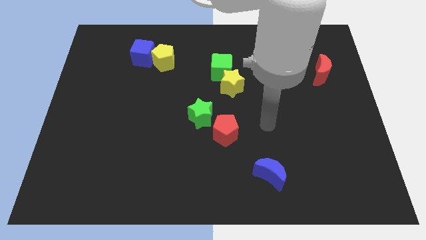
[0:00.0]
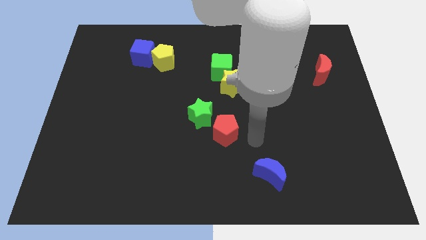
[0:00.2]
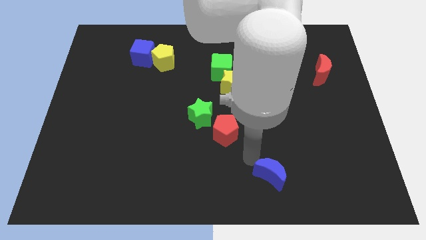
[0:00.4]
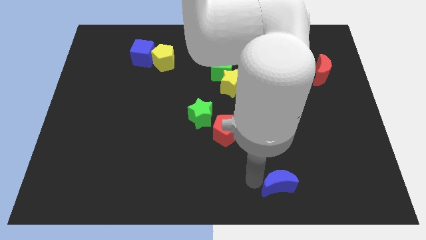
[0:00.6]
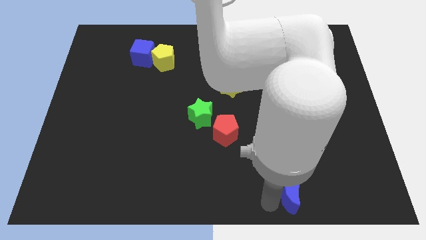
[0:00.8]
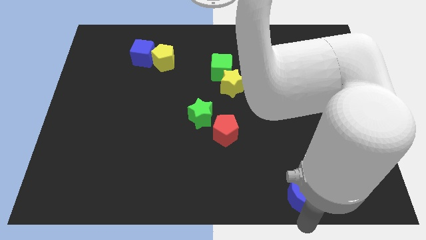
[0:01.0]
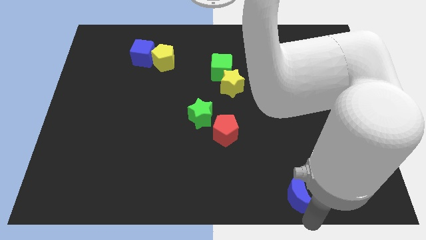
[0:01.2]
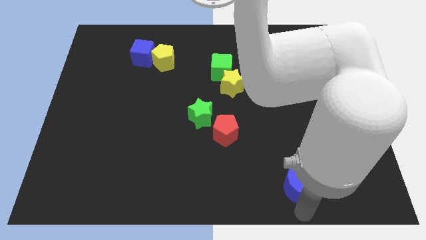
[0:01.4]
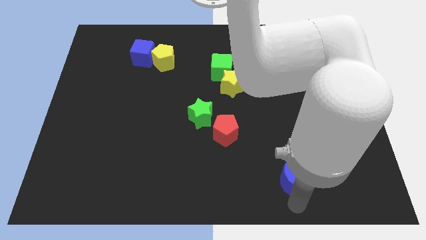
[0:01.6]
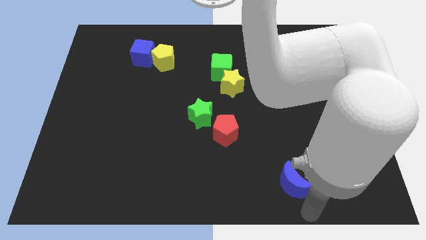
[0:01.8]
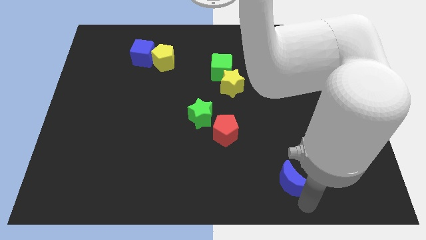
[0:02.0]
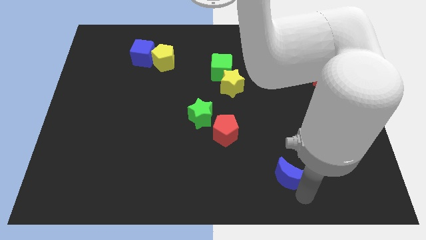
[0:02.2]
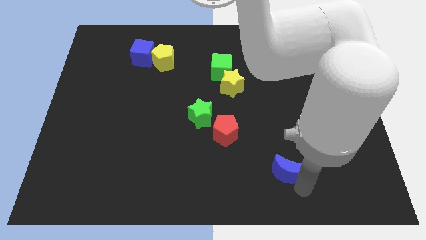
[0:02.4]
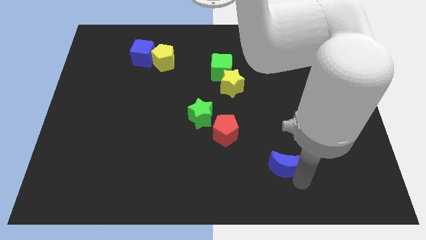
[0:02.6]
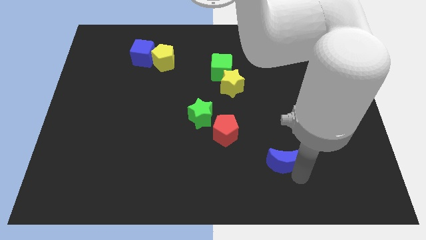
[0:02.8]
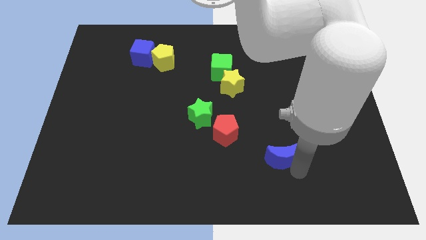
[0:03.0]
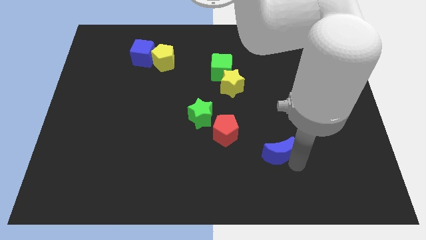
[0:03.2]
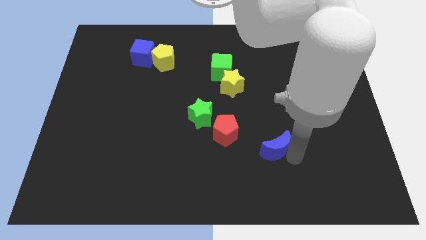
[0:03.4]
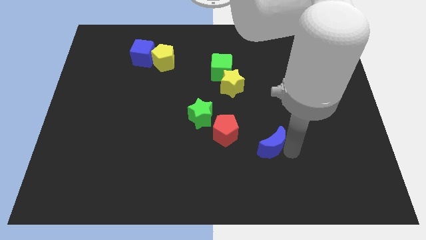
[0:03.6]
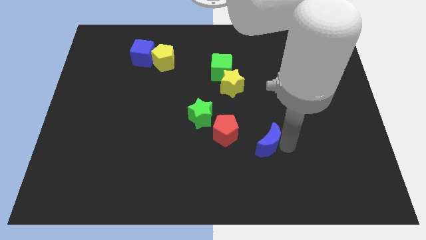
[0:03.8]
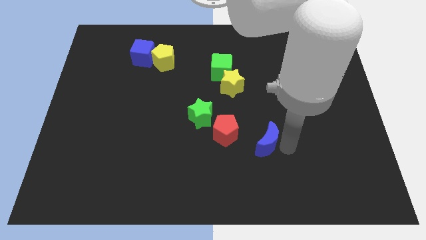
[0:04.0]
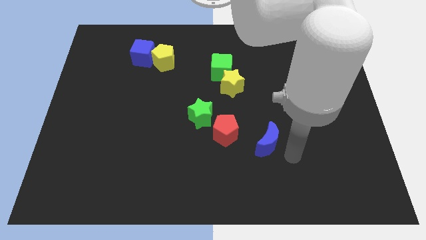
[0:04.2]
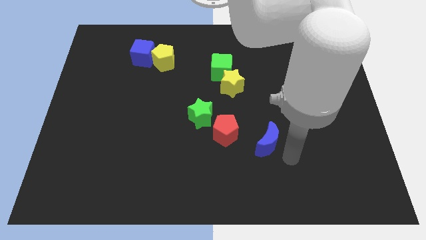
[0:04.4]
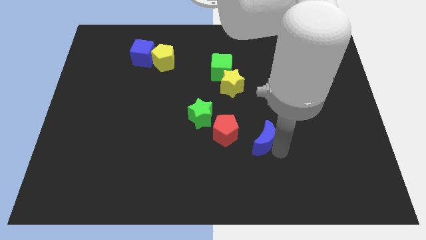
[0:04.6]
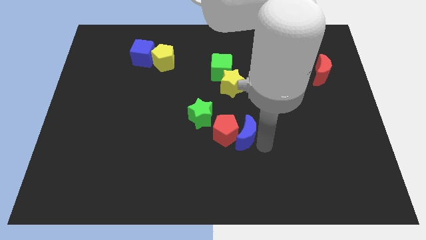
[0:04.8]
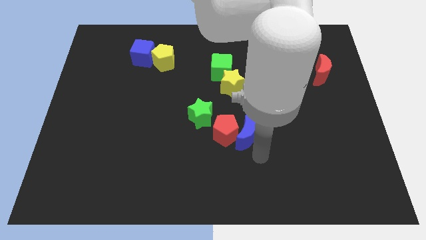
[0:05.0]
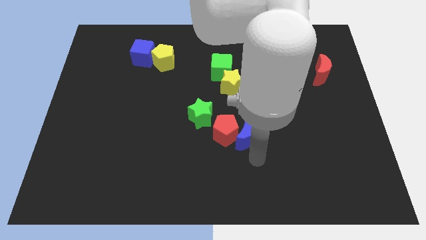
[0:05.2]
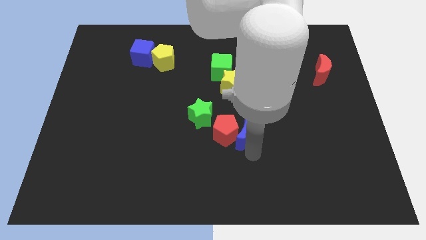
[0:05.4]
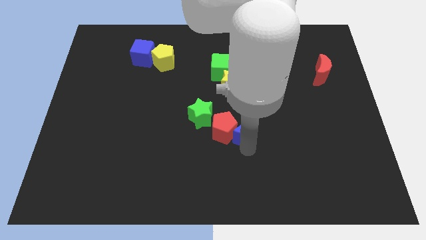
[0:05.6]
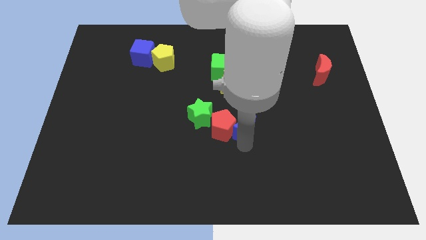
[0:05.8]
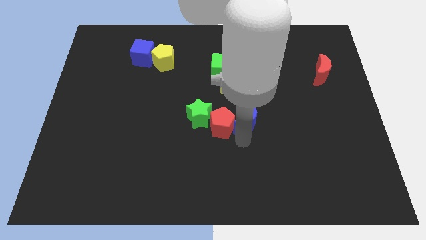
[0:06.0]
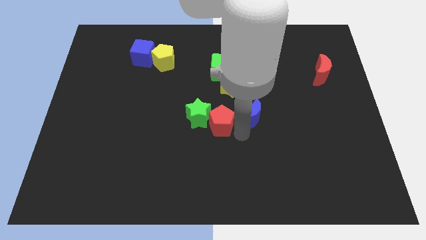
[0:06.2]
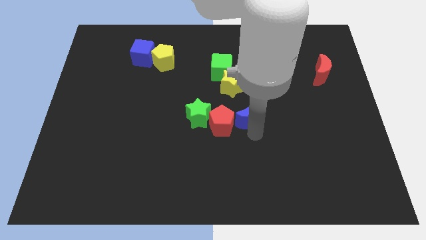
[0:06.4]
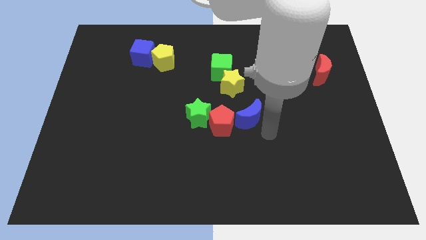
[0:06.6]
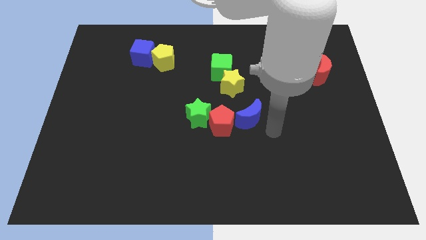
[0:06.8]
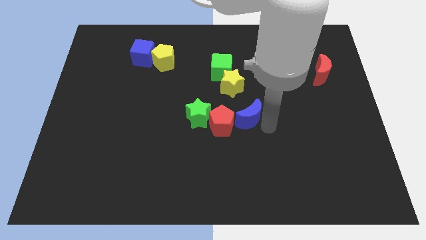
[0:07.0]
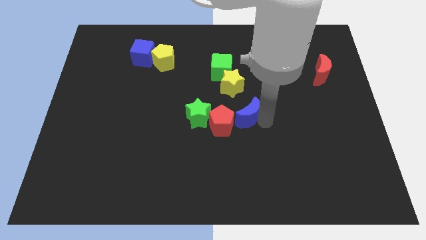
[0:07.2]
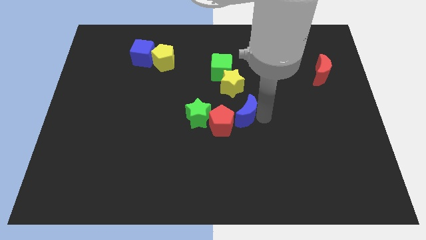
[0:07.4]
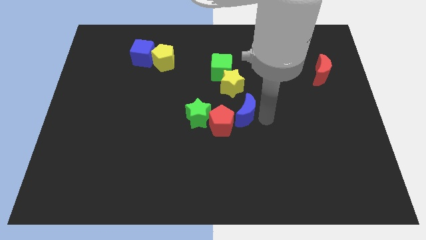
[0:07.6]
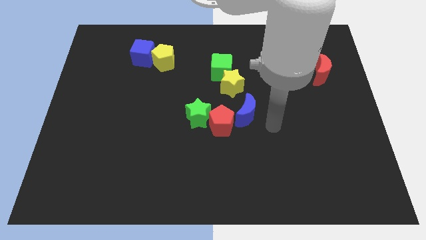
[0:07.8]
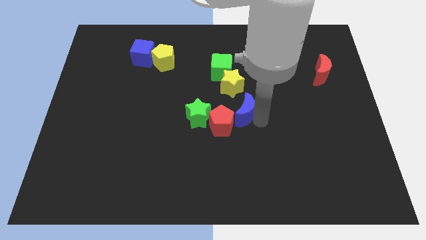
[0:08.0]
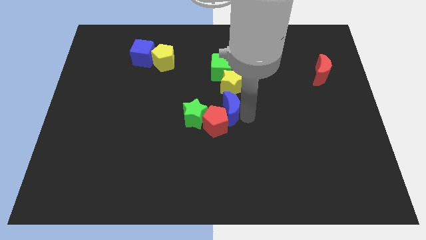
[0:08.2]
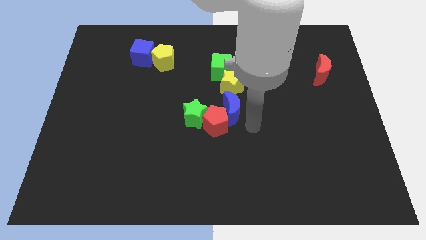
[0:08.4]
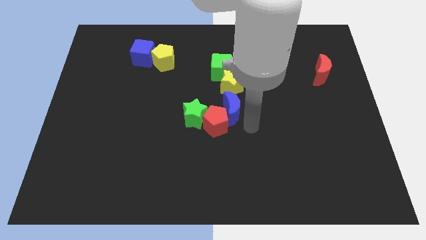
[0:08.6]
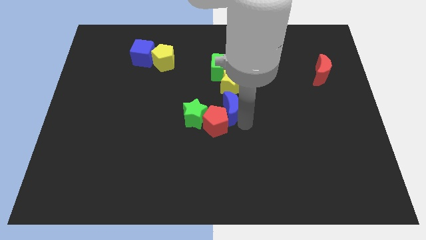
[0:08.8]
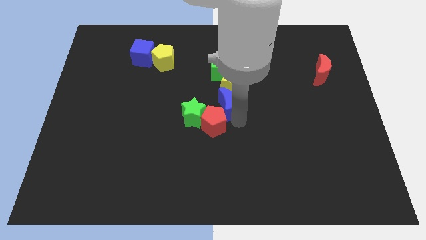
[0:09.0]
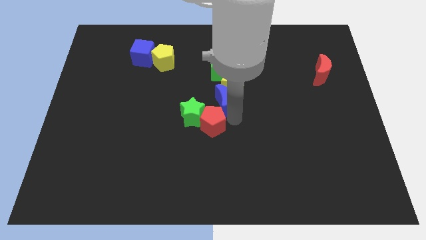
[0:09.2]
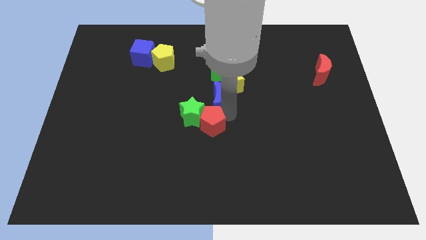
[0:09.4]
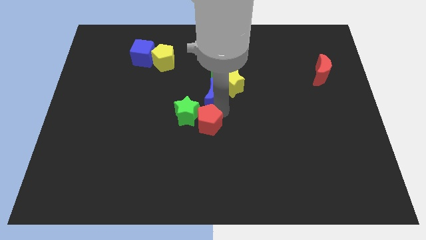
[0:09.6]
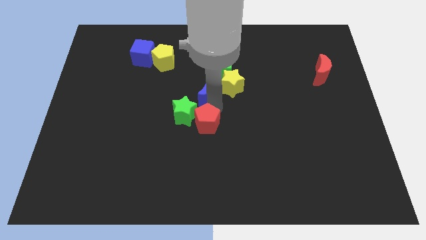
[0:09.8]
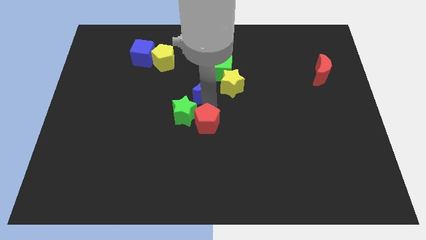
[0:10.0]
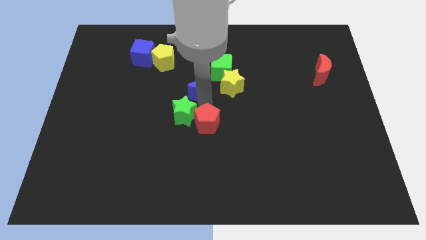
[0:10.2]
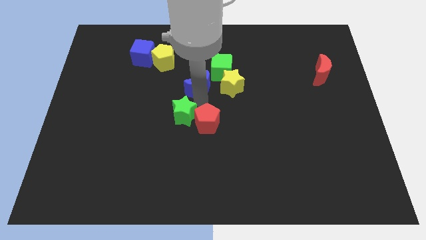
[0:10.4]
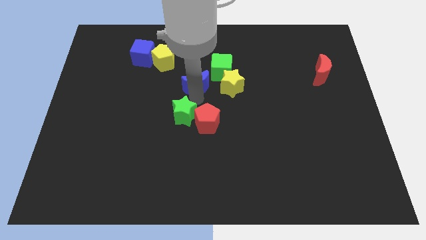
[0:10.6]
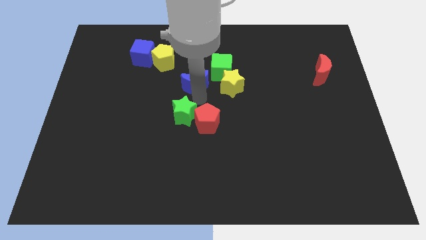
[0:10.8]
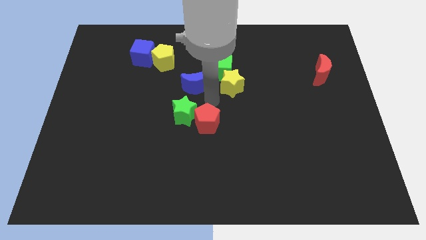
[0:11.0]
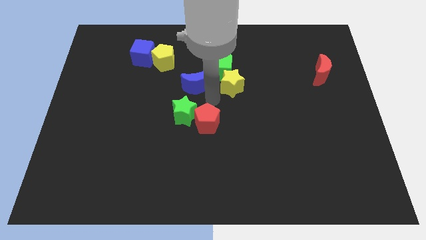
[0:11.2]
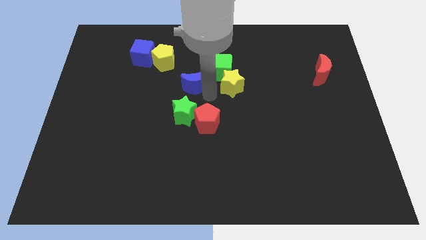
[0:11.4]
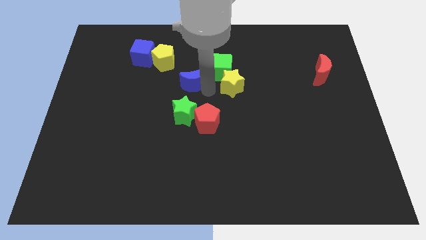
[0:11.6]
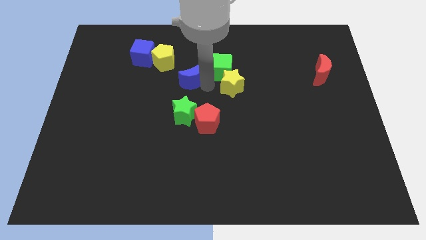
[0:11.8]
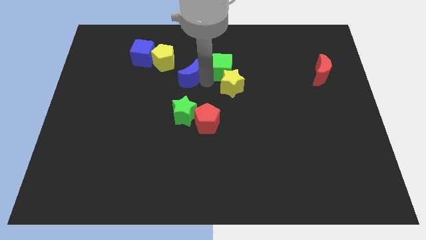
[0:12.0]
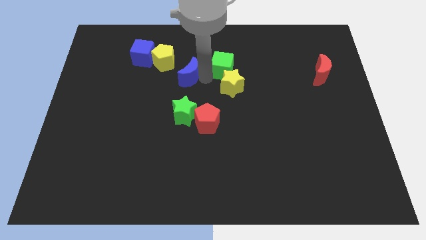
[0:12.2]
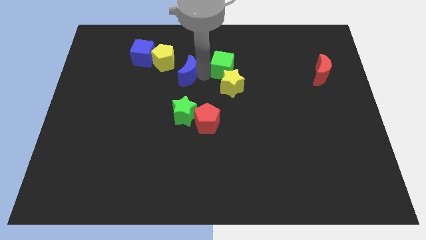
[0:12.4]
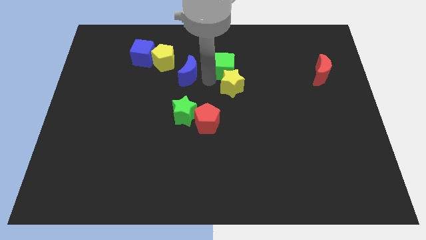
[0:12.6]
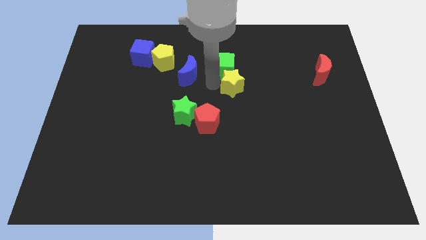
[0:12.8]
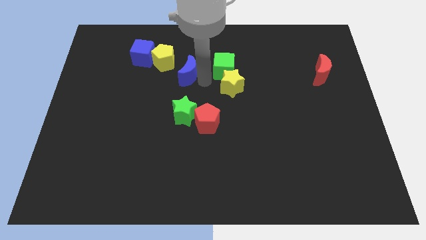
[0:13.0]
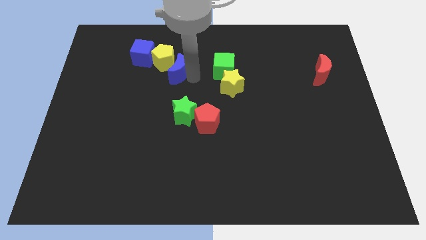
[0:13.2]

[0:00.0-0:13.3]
slide the blue moon to the yellow pentagon
